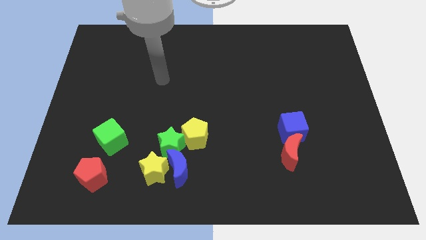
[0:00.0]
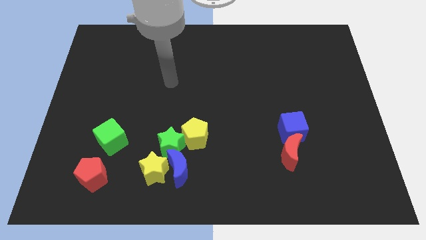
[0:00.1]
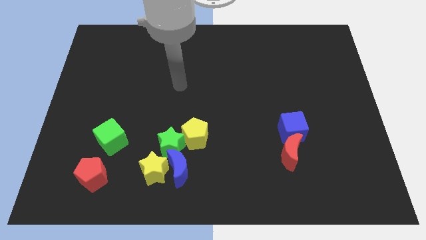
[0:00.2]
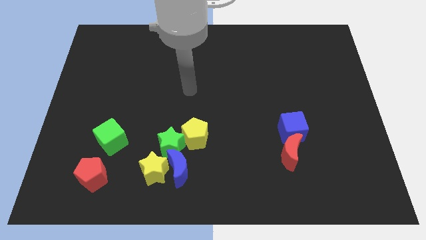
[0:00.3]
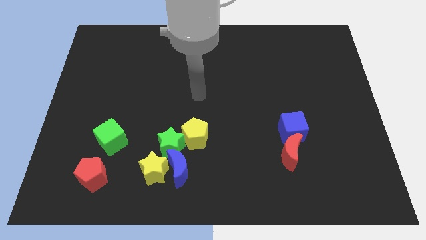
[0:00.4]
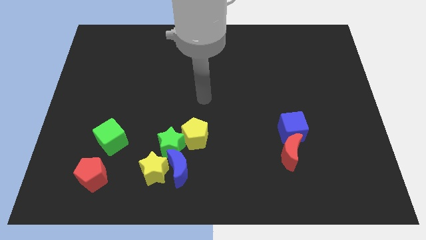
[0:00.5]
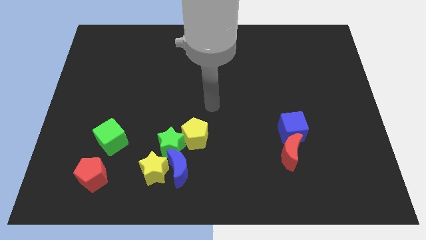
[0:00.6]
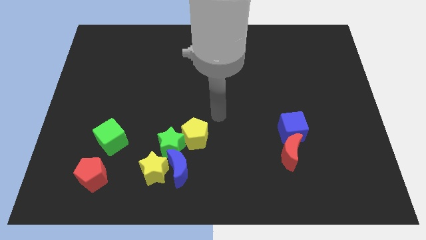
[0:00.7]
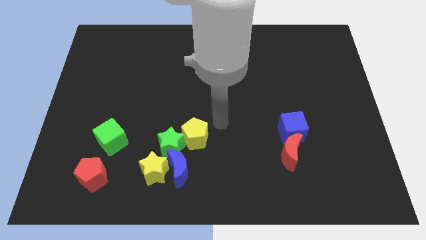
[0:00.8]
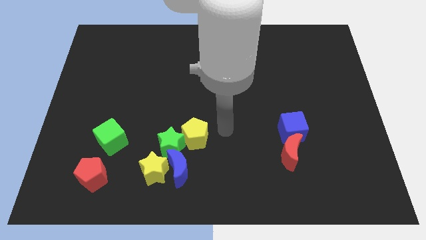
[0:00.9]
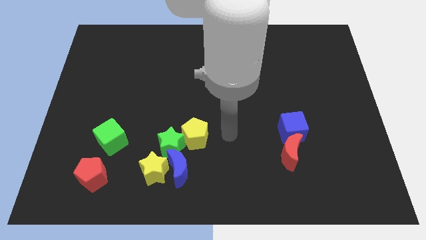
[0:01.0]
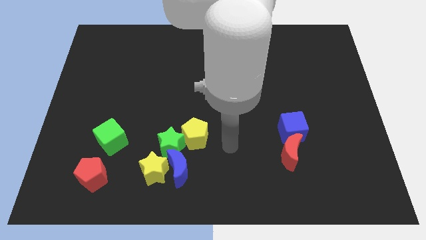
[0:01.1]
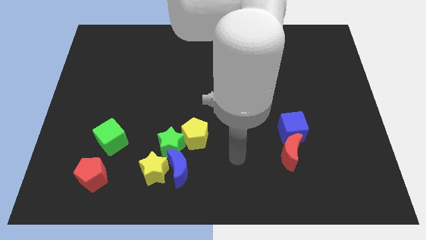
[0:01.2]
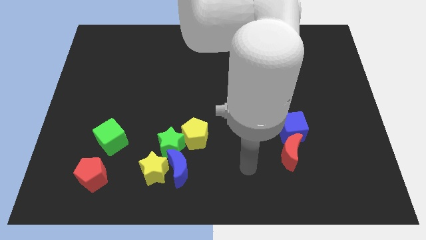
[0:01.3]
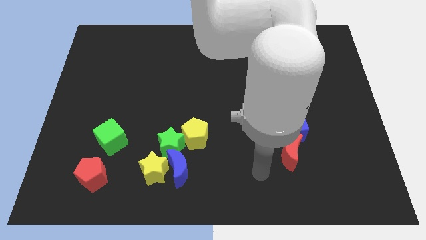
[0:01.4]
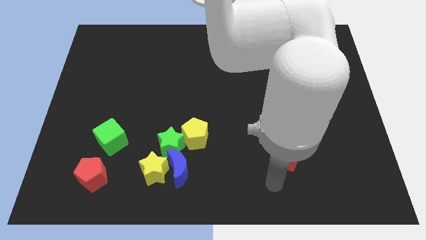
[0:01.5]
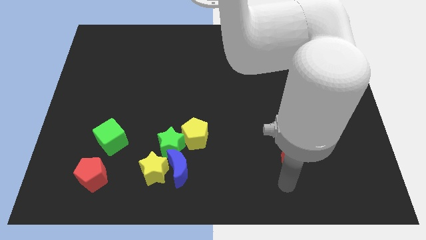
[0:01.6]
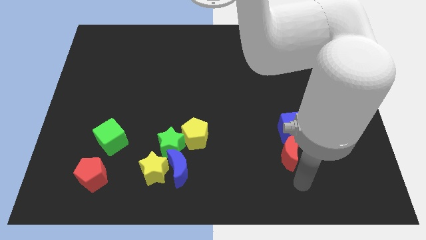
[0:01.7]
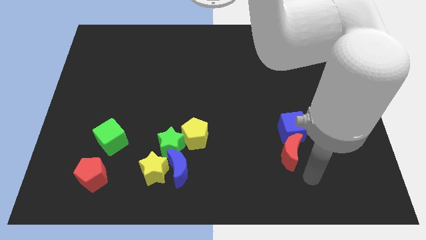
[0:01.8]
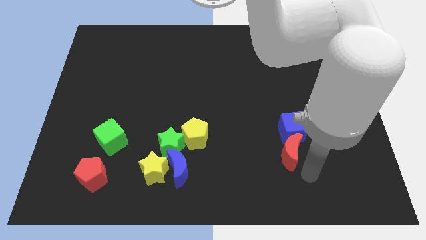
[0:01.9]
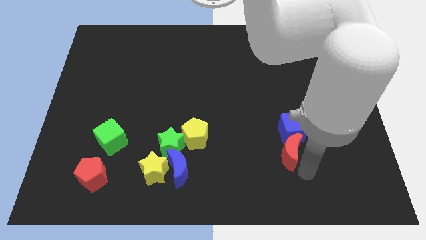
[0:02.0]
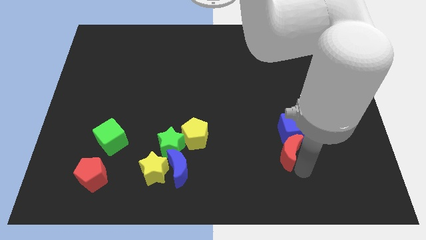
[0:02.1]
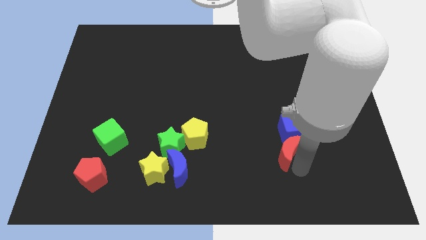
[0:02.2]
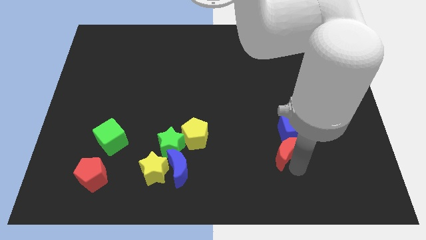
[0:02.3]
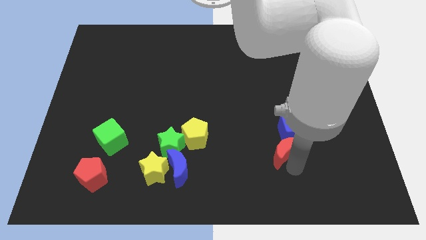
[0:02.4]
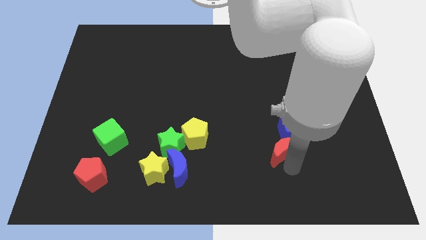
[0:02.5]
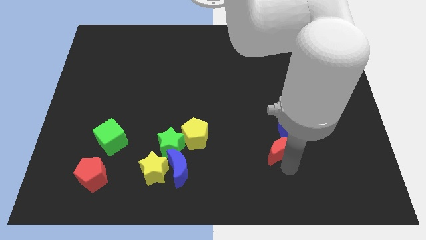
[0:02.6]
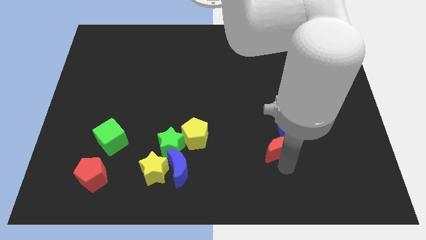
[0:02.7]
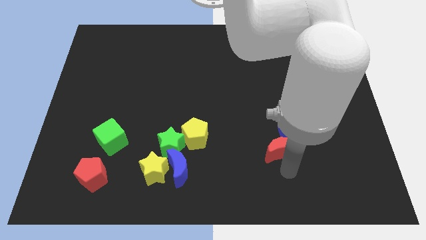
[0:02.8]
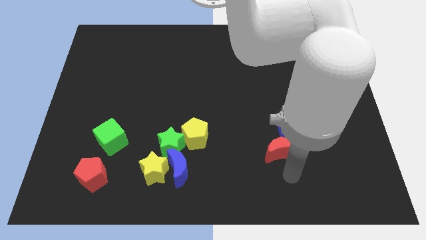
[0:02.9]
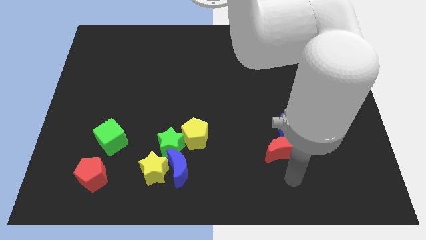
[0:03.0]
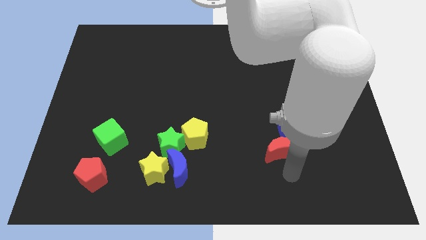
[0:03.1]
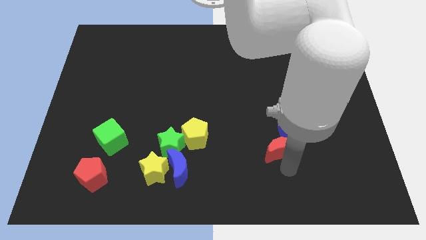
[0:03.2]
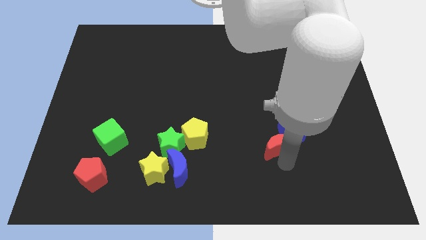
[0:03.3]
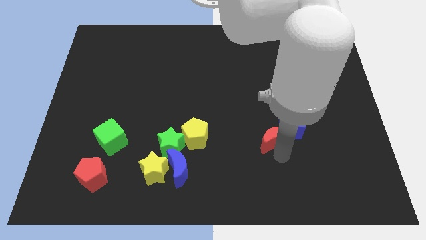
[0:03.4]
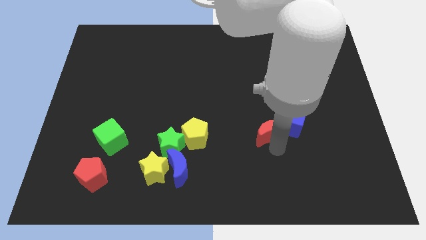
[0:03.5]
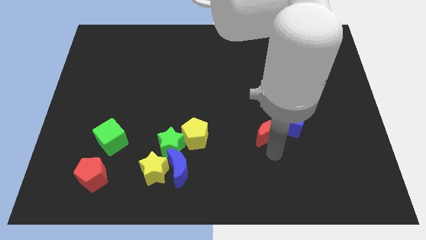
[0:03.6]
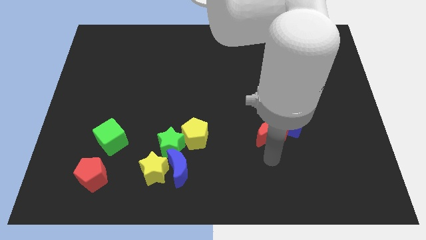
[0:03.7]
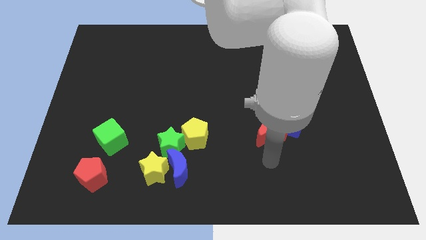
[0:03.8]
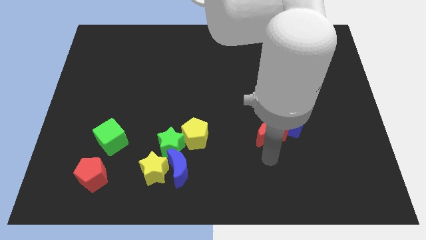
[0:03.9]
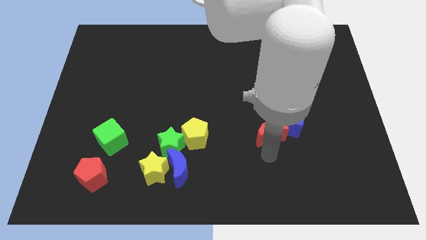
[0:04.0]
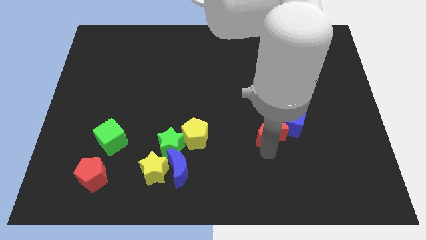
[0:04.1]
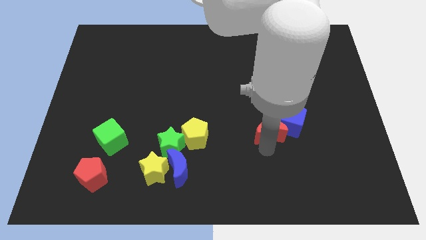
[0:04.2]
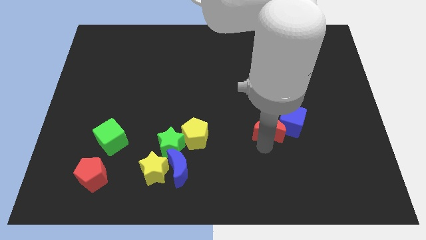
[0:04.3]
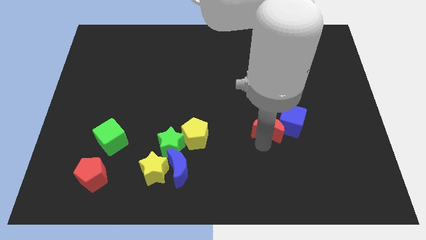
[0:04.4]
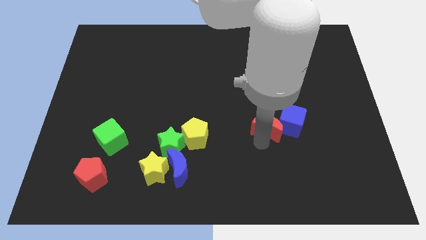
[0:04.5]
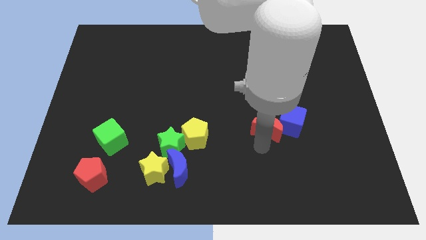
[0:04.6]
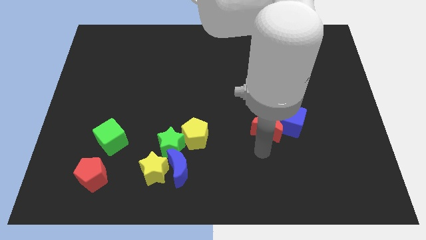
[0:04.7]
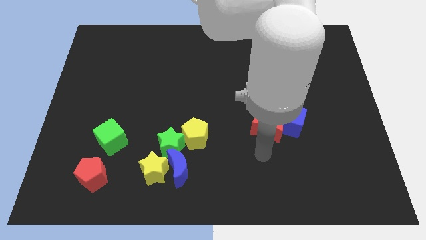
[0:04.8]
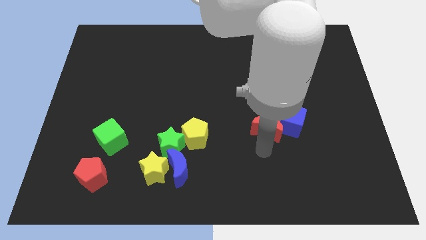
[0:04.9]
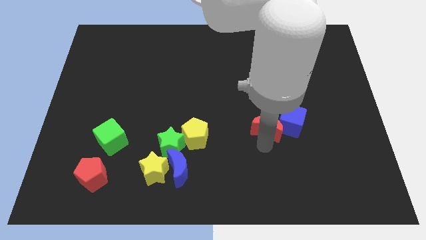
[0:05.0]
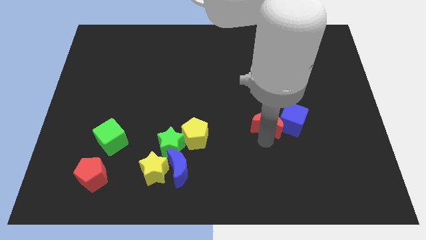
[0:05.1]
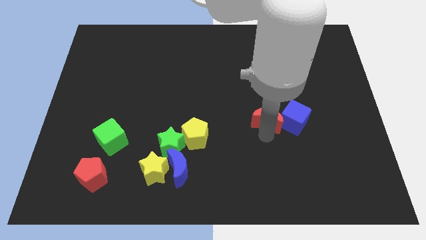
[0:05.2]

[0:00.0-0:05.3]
slightly move the red moon upwards

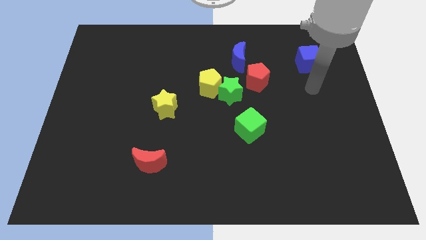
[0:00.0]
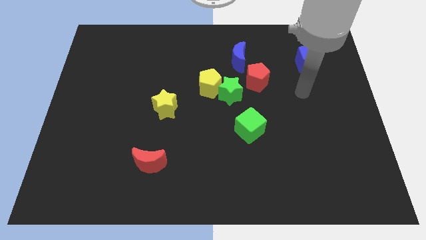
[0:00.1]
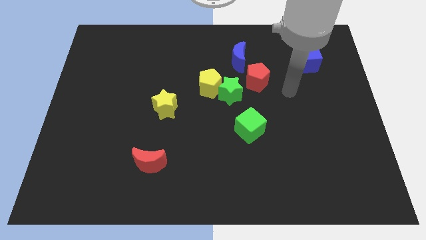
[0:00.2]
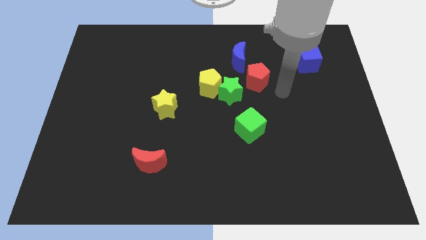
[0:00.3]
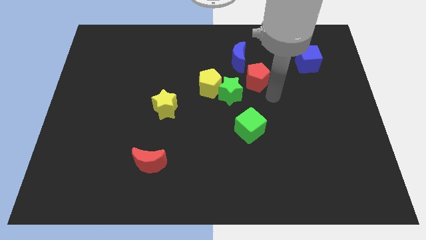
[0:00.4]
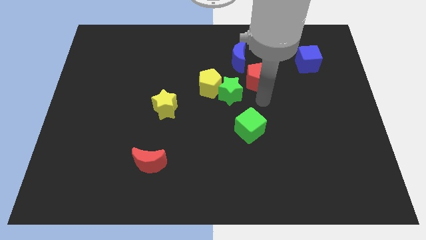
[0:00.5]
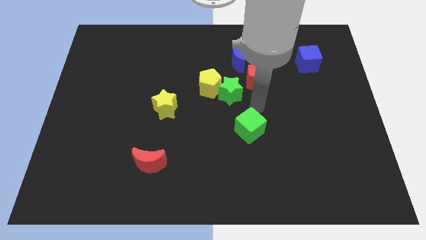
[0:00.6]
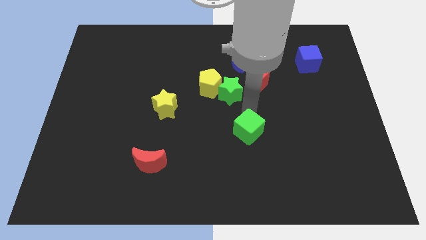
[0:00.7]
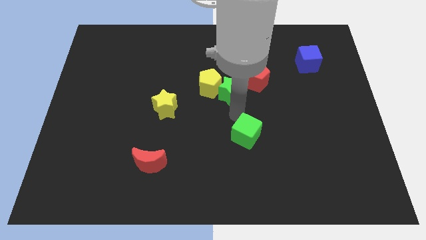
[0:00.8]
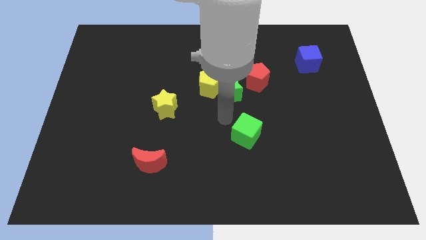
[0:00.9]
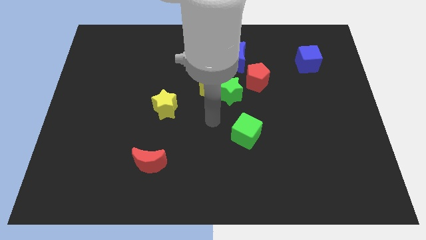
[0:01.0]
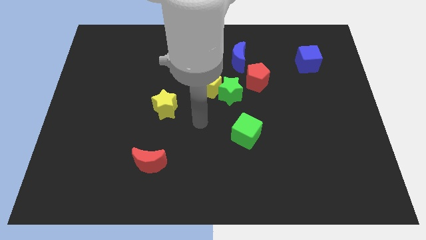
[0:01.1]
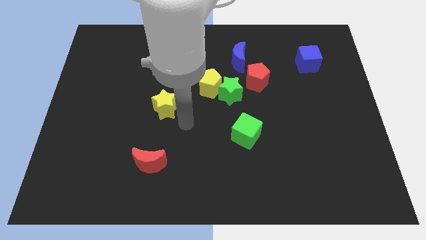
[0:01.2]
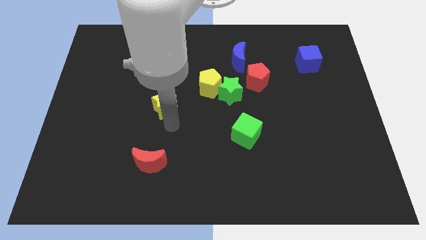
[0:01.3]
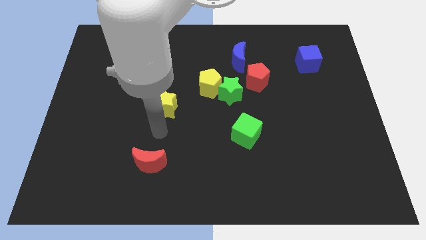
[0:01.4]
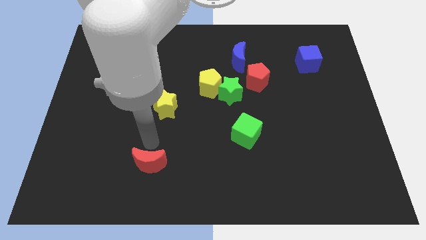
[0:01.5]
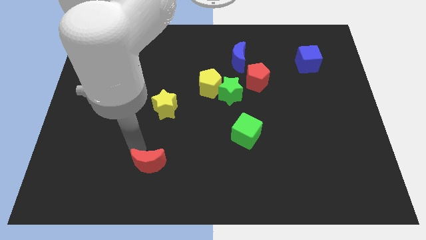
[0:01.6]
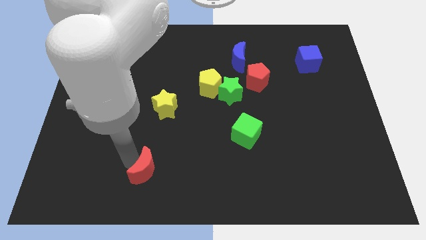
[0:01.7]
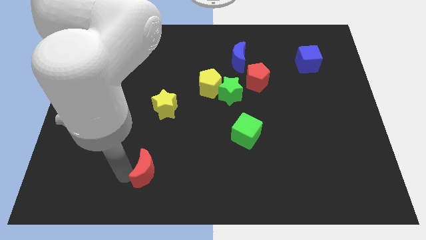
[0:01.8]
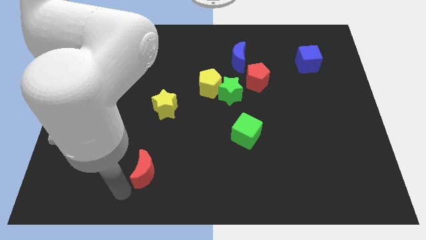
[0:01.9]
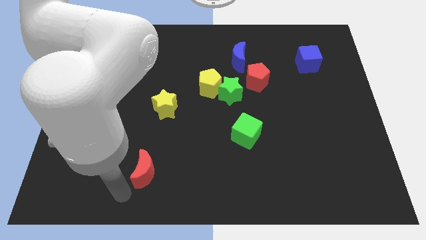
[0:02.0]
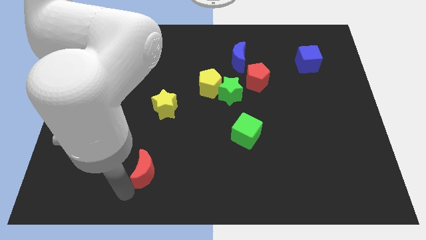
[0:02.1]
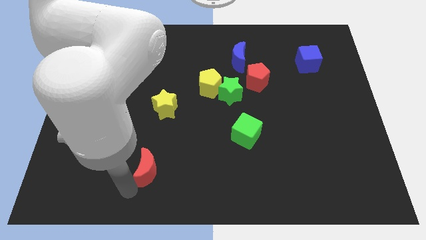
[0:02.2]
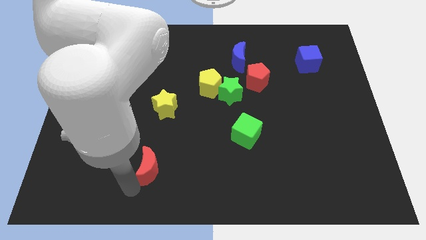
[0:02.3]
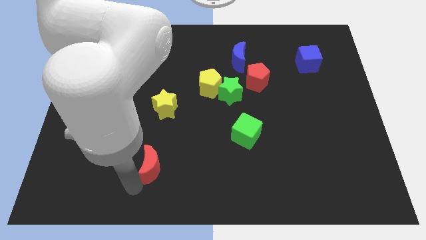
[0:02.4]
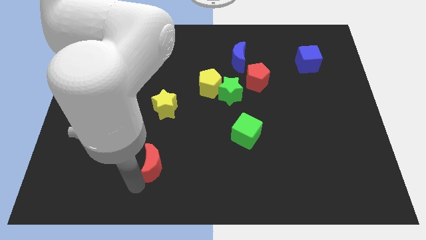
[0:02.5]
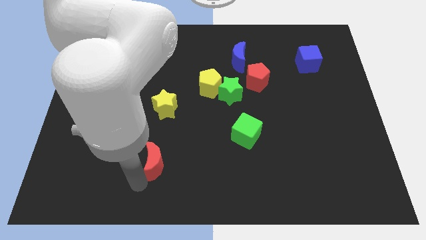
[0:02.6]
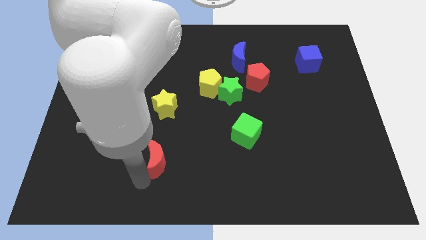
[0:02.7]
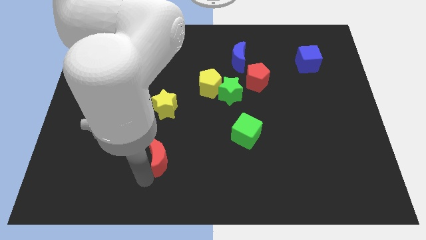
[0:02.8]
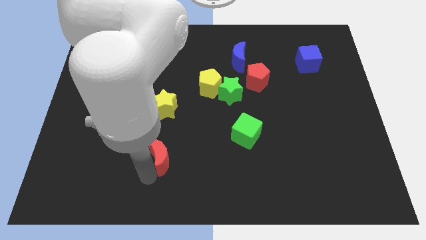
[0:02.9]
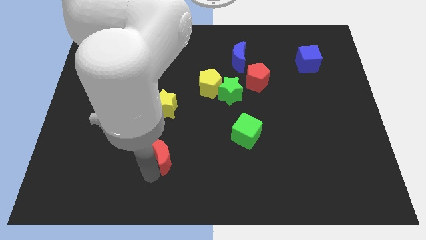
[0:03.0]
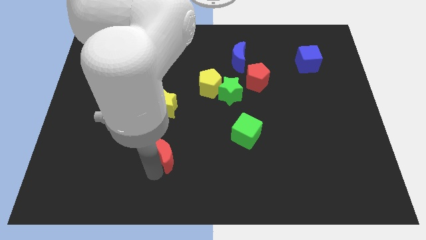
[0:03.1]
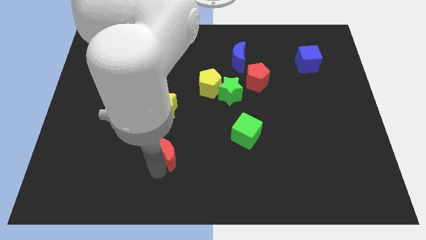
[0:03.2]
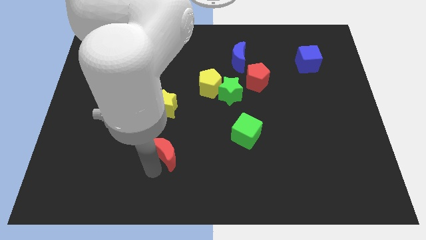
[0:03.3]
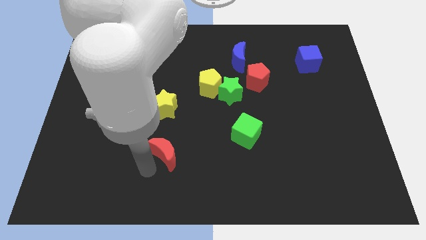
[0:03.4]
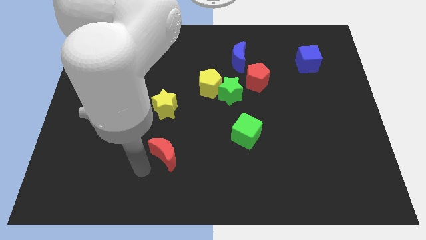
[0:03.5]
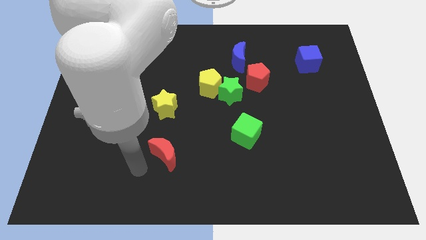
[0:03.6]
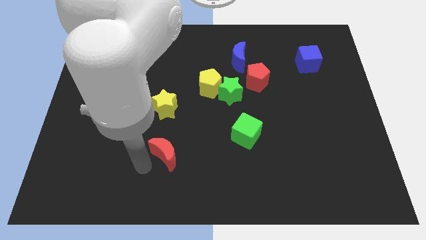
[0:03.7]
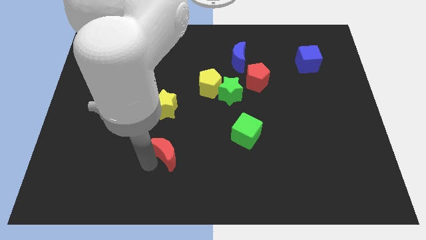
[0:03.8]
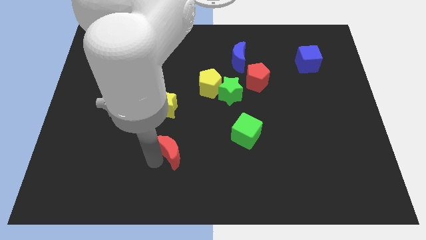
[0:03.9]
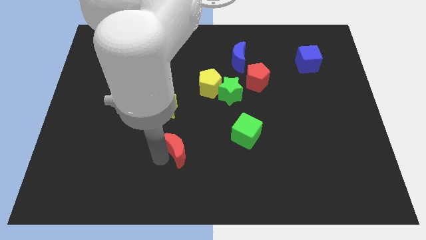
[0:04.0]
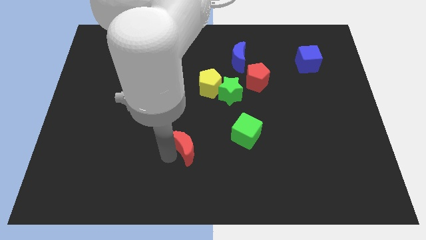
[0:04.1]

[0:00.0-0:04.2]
push the red moon upwards and right slightly
